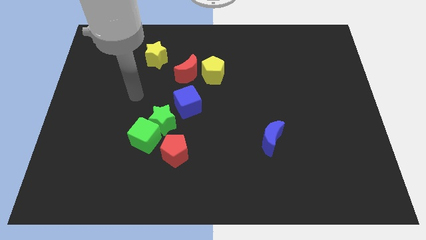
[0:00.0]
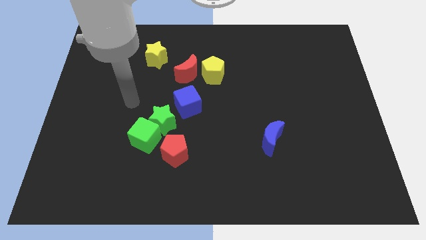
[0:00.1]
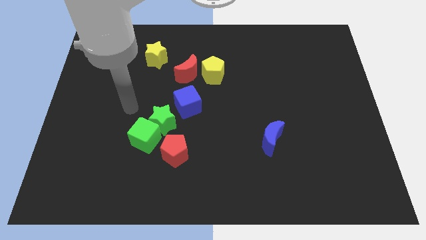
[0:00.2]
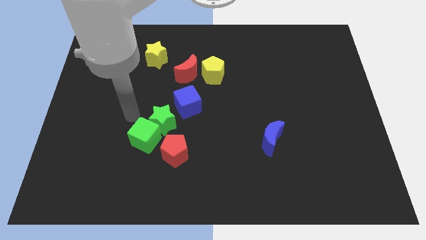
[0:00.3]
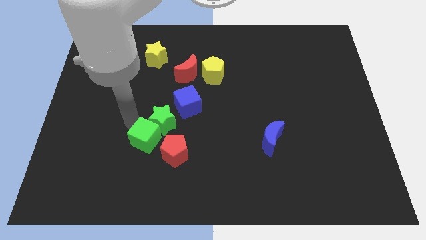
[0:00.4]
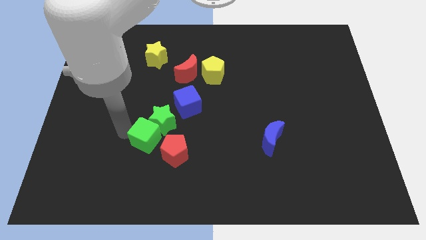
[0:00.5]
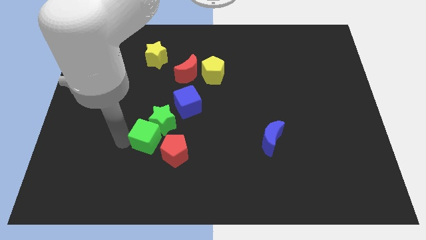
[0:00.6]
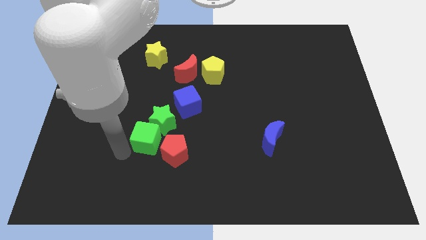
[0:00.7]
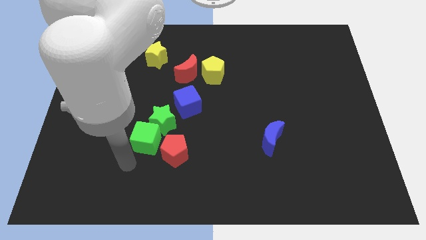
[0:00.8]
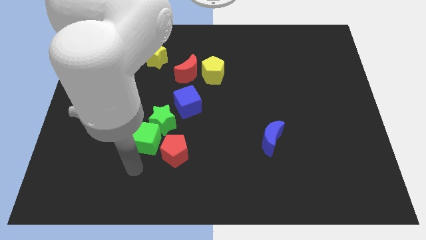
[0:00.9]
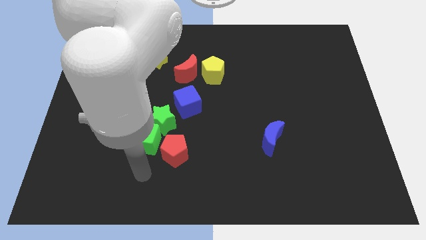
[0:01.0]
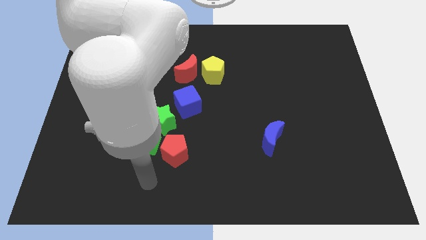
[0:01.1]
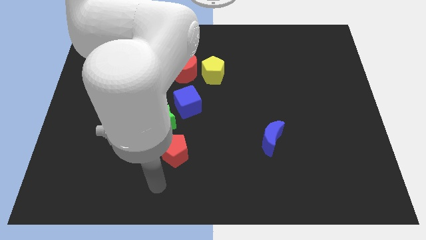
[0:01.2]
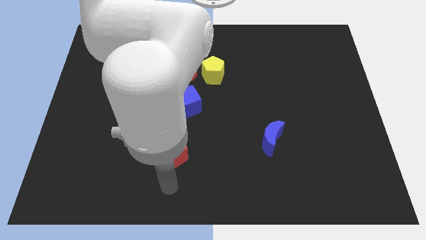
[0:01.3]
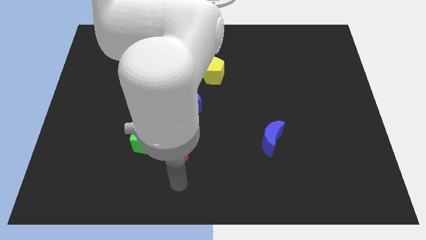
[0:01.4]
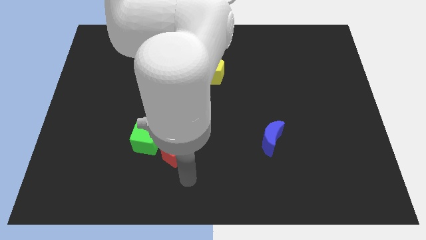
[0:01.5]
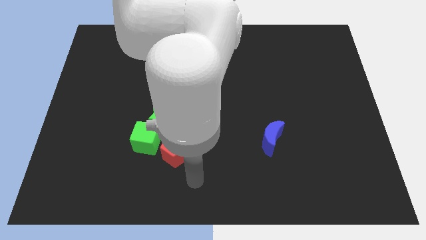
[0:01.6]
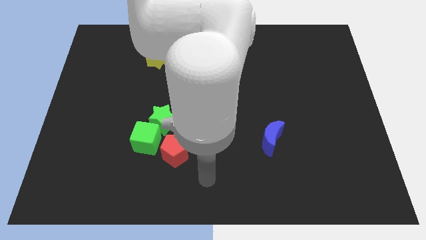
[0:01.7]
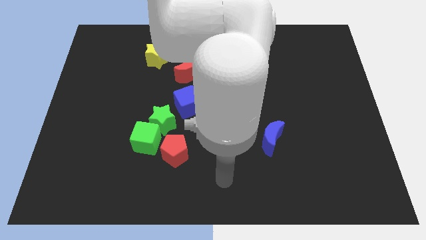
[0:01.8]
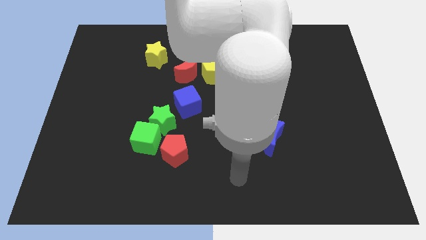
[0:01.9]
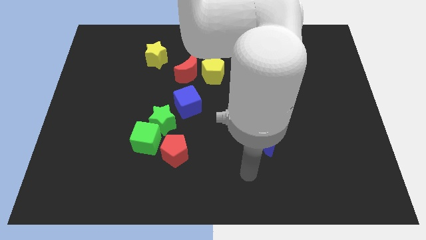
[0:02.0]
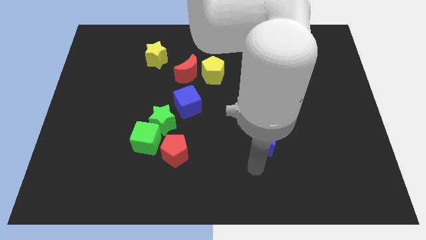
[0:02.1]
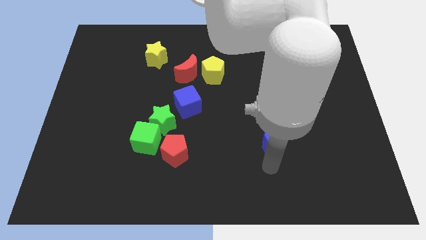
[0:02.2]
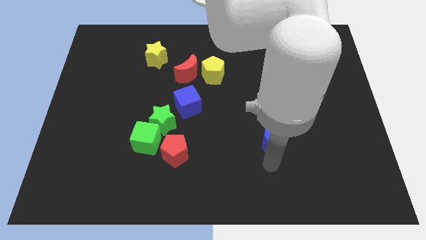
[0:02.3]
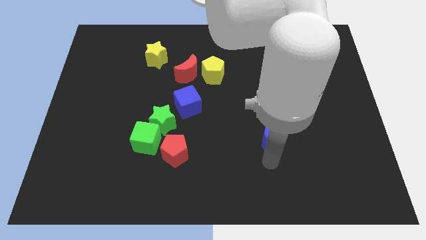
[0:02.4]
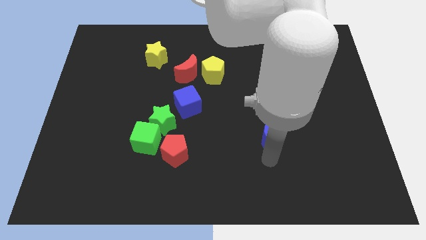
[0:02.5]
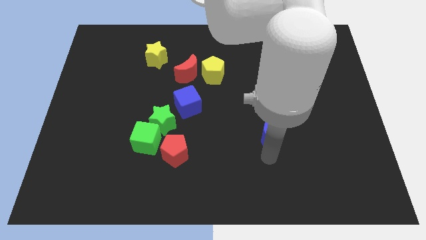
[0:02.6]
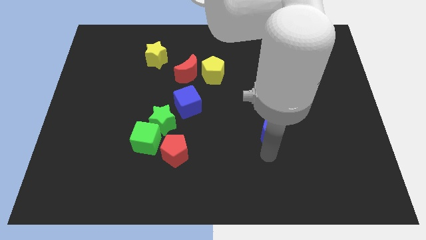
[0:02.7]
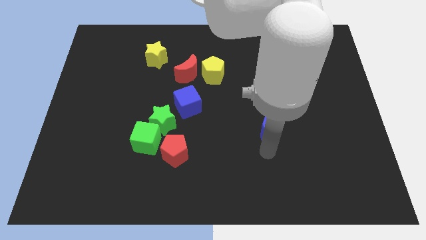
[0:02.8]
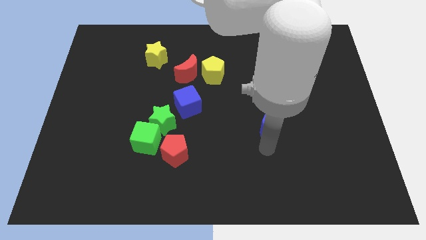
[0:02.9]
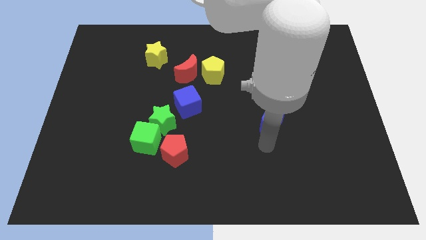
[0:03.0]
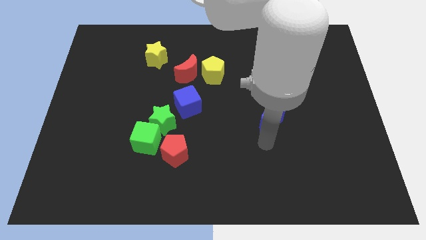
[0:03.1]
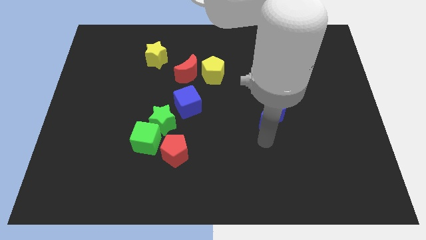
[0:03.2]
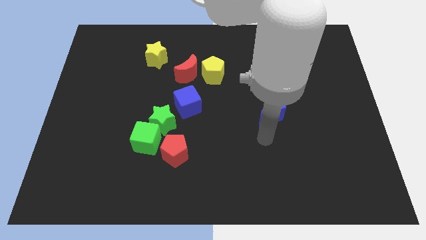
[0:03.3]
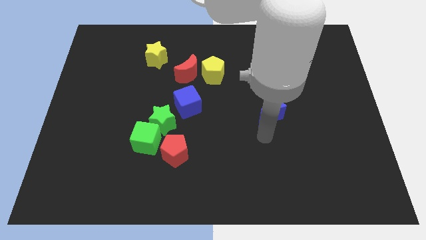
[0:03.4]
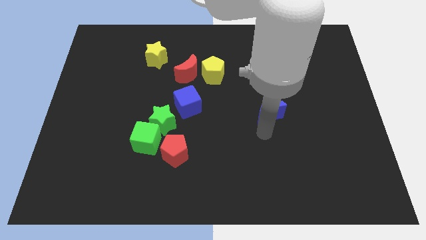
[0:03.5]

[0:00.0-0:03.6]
slightly slide the blue moon upwards

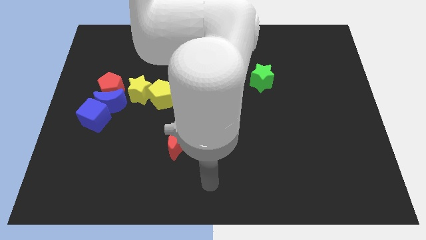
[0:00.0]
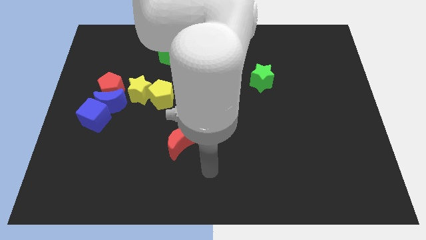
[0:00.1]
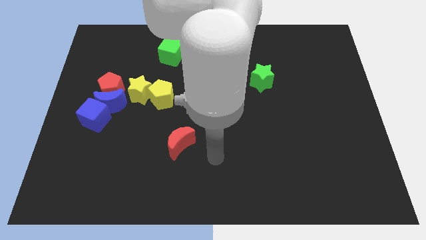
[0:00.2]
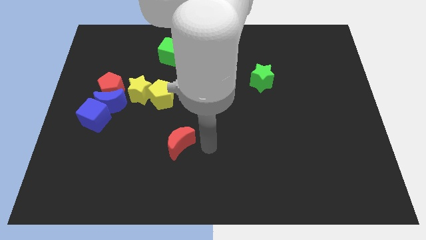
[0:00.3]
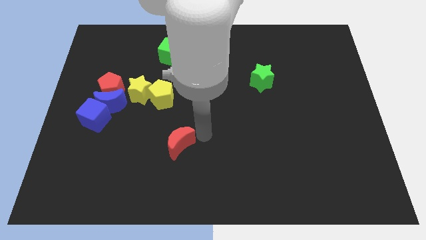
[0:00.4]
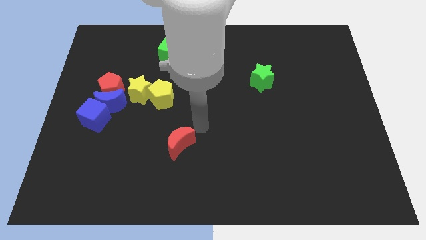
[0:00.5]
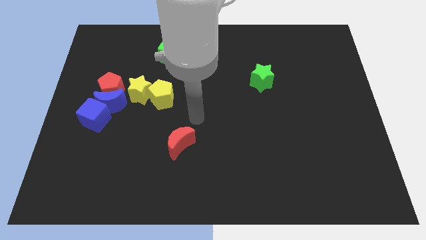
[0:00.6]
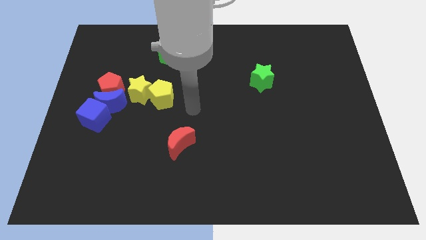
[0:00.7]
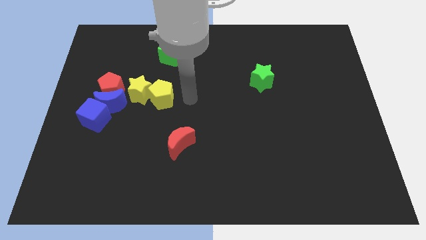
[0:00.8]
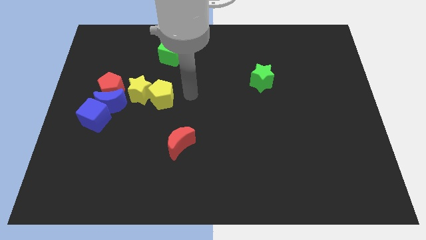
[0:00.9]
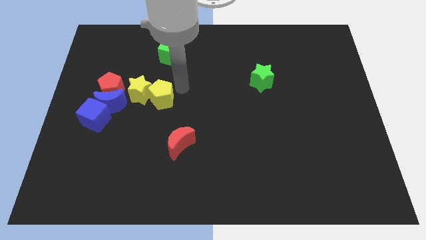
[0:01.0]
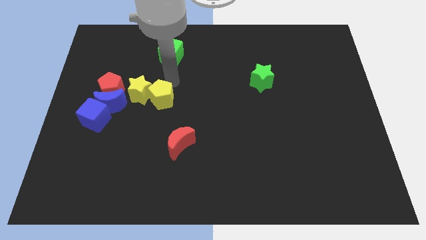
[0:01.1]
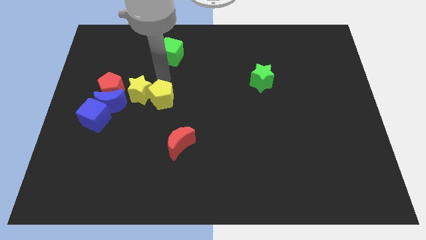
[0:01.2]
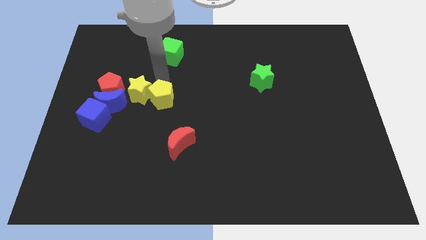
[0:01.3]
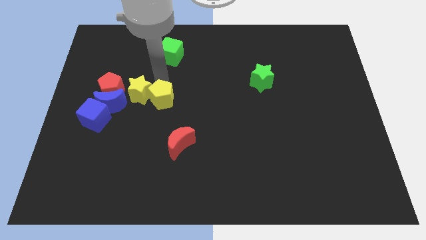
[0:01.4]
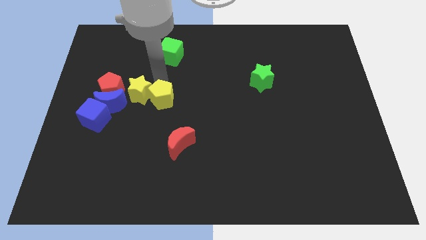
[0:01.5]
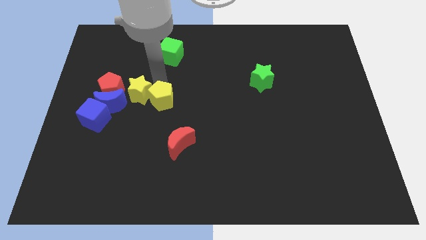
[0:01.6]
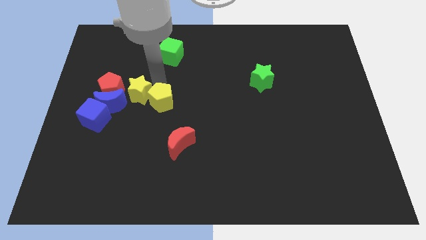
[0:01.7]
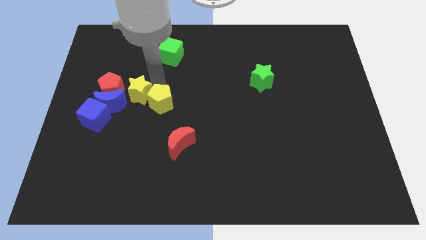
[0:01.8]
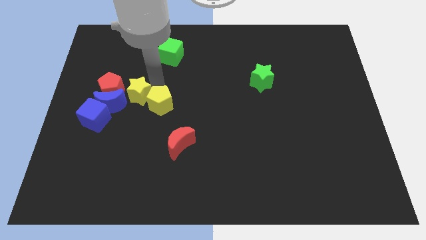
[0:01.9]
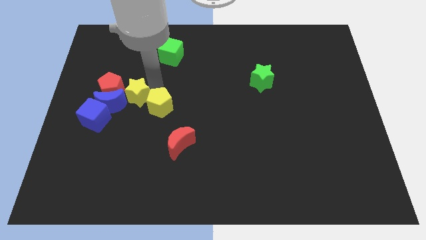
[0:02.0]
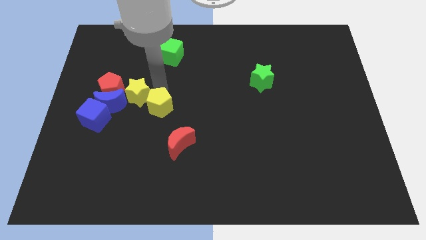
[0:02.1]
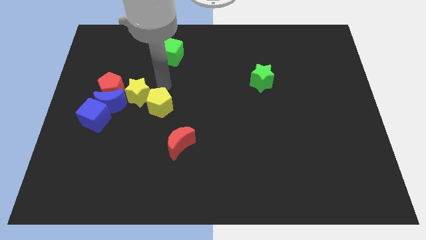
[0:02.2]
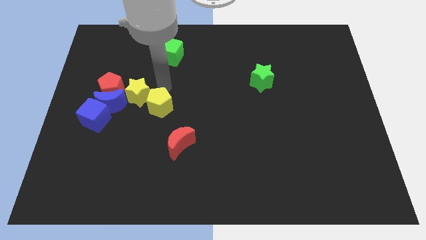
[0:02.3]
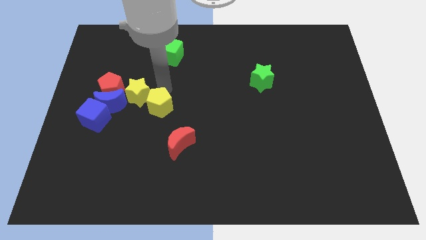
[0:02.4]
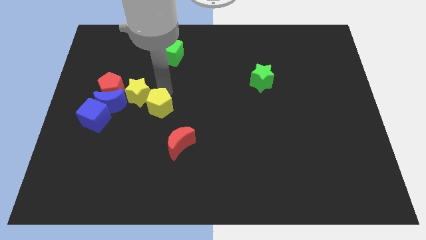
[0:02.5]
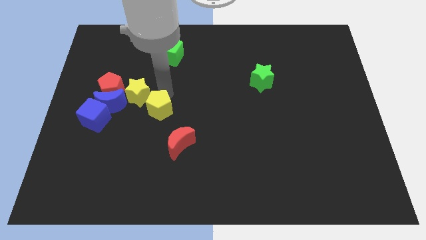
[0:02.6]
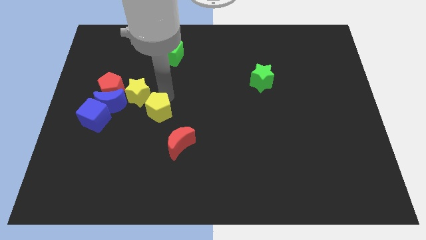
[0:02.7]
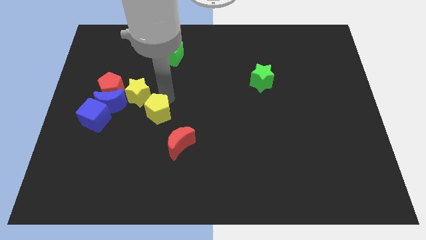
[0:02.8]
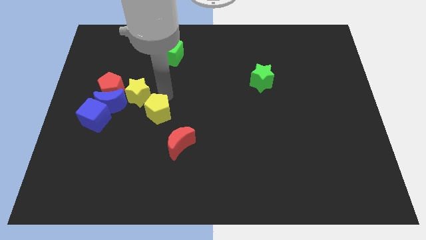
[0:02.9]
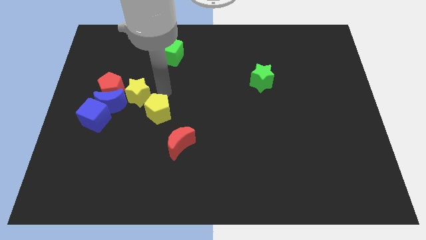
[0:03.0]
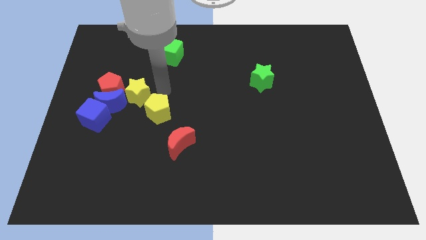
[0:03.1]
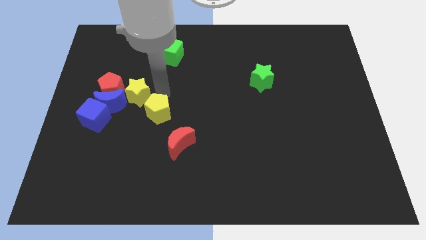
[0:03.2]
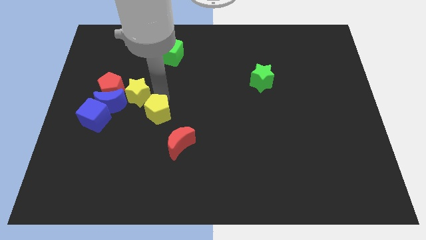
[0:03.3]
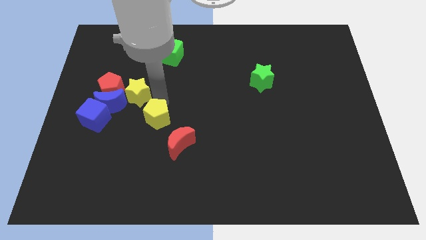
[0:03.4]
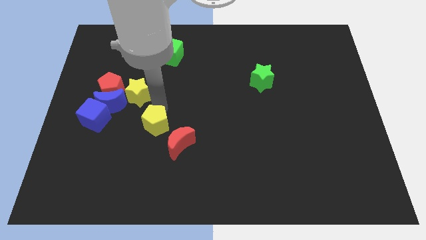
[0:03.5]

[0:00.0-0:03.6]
slide the yellow pentagon a bit downwards

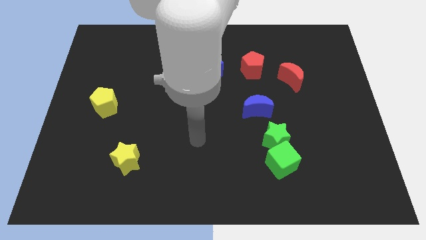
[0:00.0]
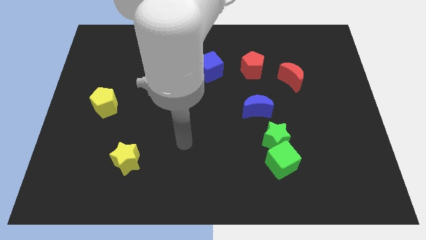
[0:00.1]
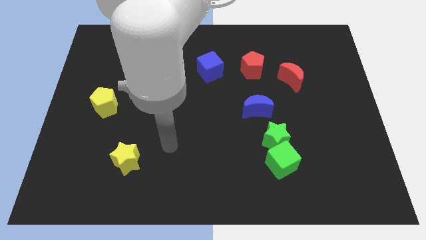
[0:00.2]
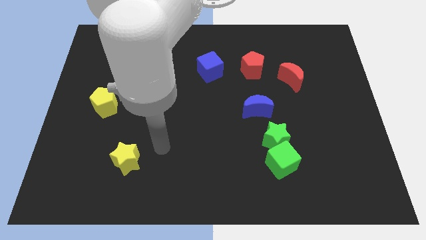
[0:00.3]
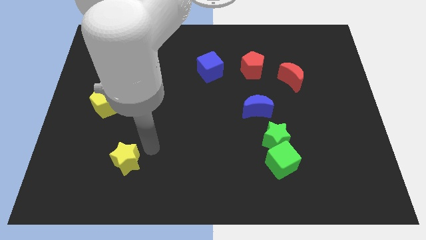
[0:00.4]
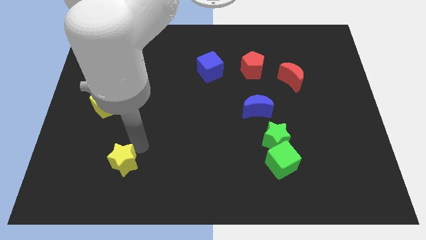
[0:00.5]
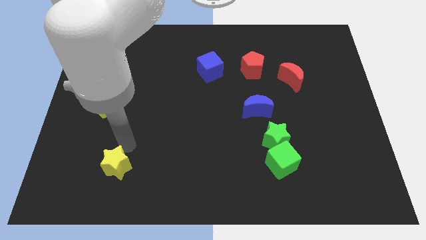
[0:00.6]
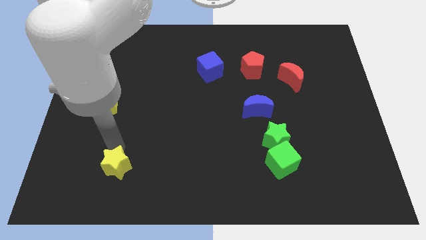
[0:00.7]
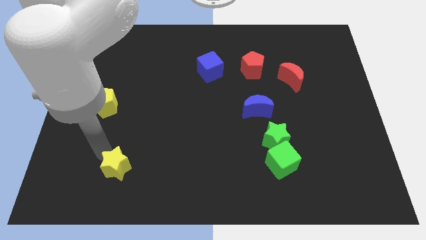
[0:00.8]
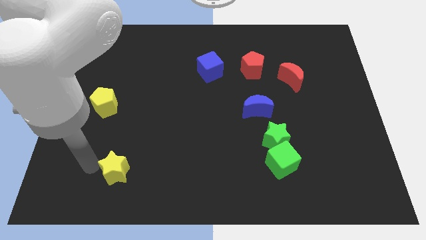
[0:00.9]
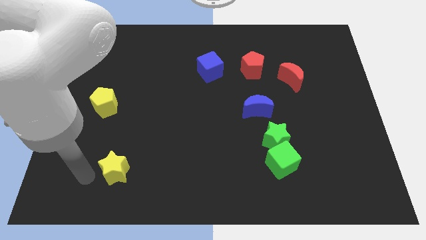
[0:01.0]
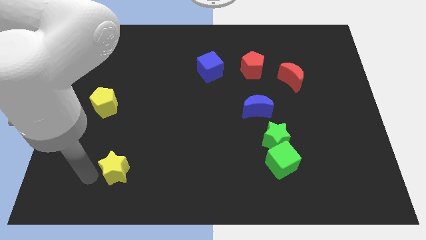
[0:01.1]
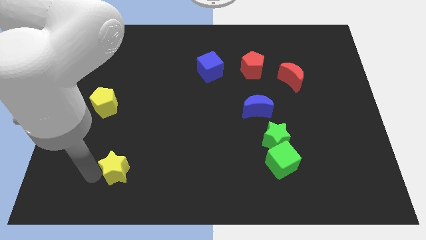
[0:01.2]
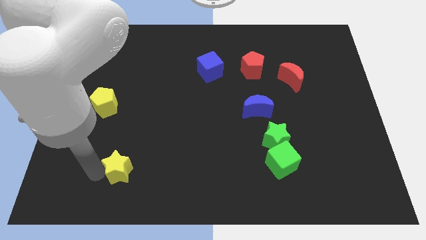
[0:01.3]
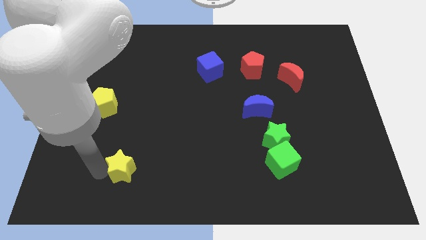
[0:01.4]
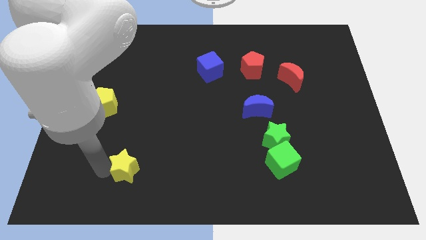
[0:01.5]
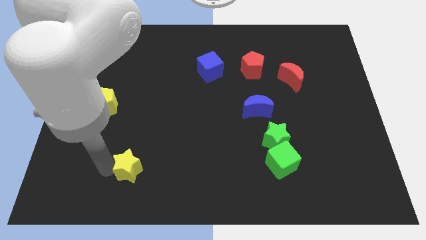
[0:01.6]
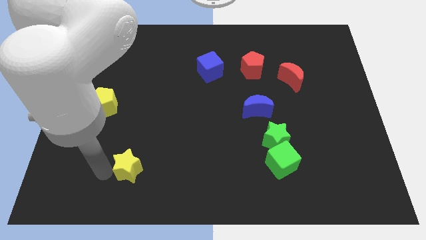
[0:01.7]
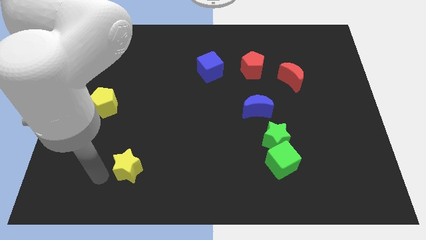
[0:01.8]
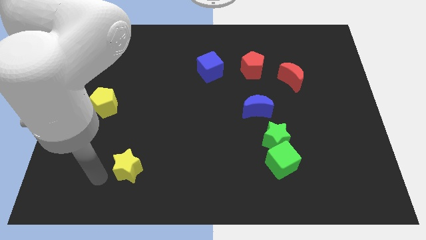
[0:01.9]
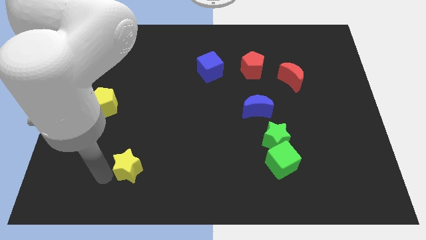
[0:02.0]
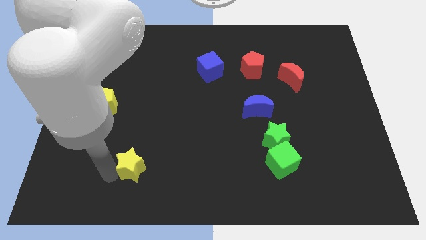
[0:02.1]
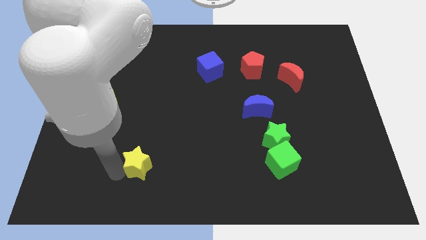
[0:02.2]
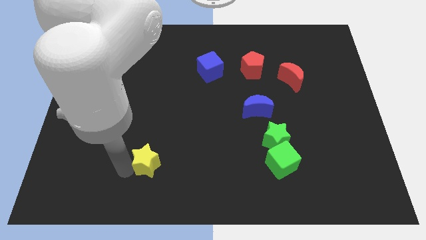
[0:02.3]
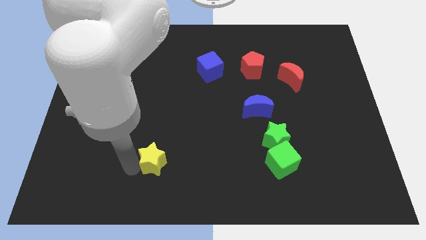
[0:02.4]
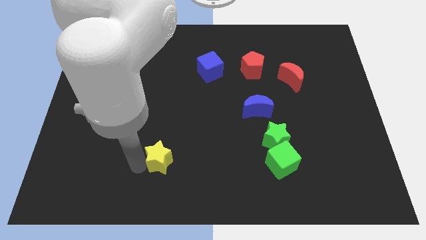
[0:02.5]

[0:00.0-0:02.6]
slide the yellow star a bit right
